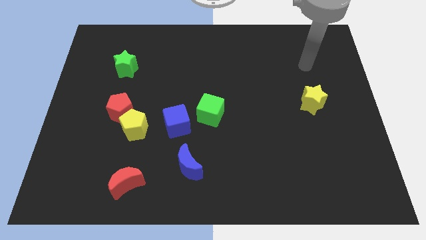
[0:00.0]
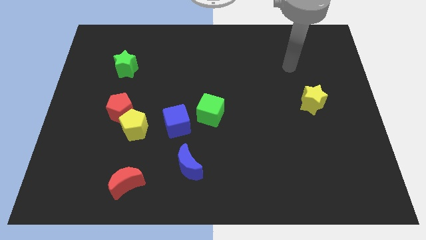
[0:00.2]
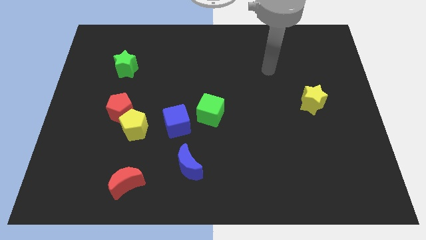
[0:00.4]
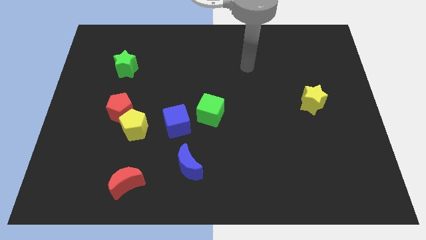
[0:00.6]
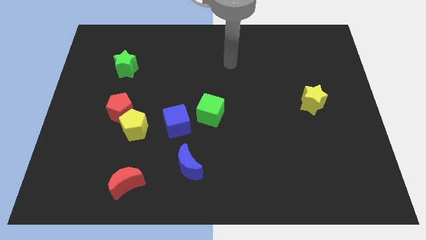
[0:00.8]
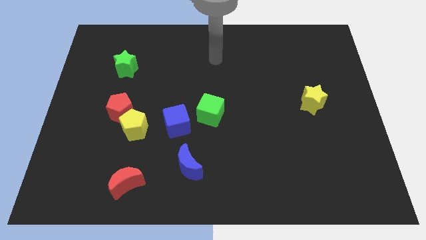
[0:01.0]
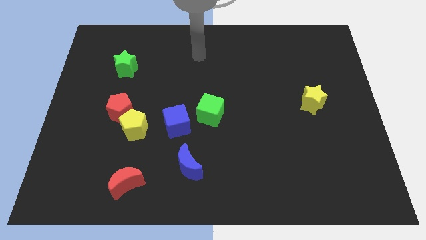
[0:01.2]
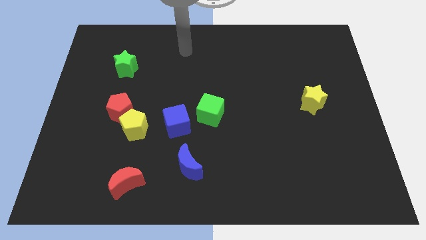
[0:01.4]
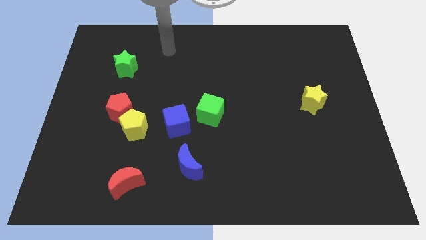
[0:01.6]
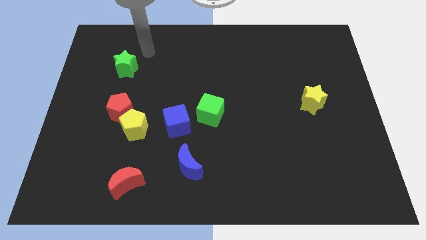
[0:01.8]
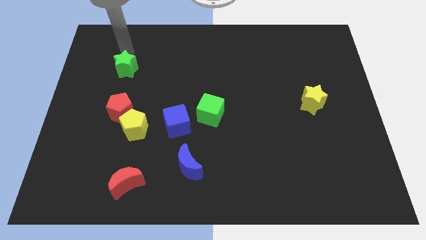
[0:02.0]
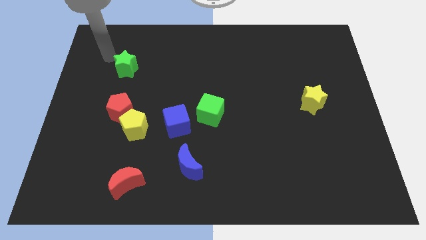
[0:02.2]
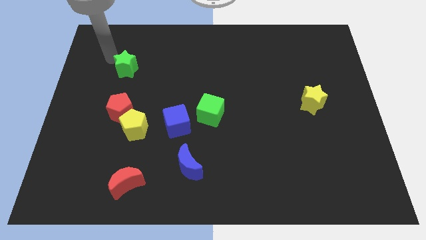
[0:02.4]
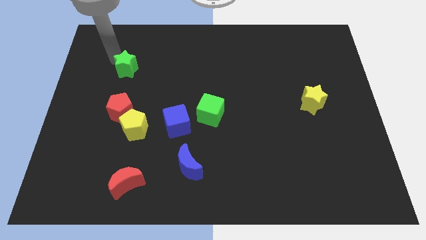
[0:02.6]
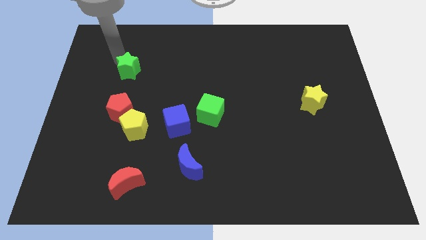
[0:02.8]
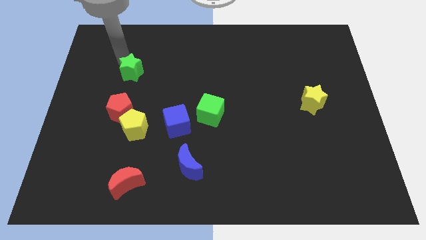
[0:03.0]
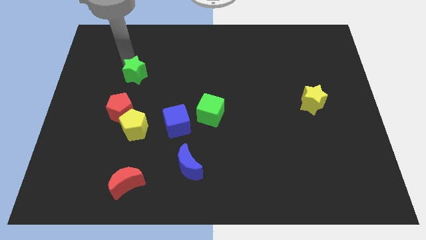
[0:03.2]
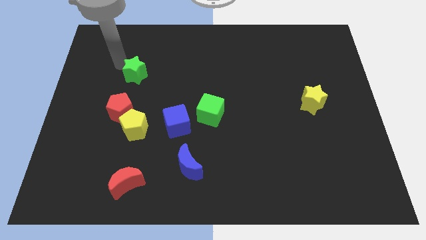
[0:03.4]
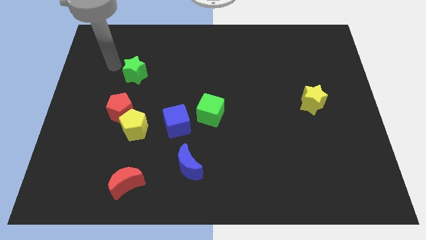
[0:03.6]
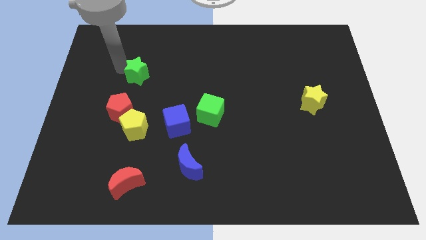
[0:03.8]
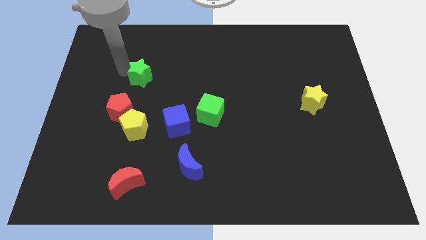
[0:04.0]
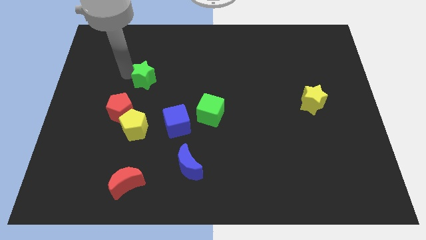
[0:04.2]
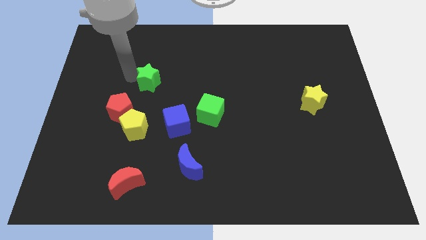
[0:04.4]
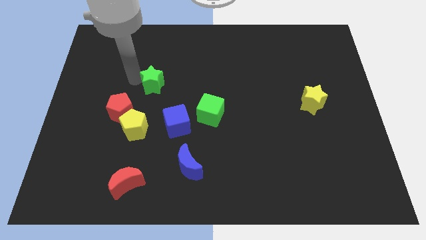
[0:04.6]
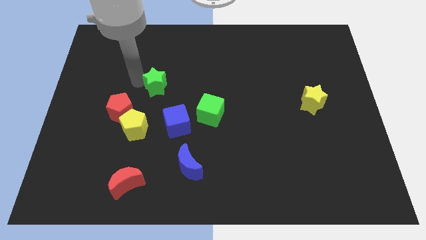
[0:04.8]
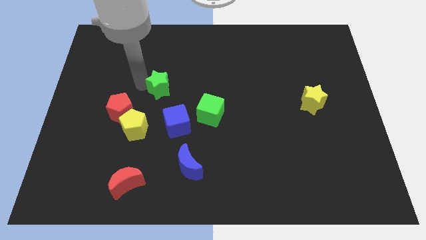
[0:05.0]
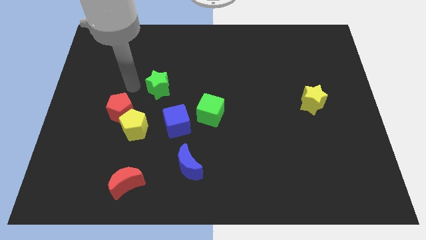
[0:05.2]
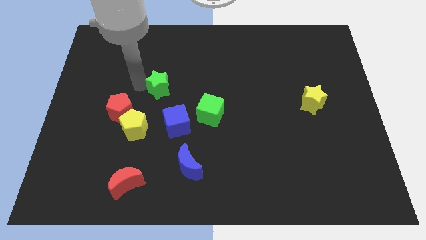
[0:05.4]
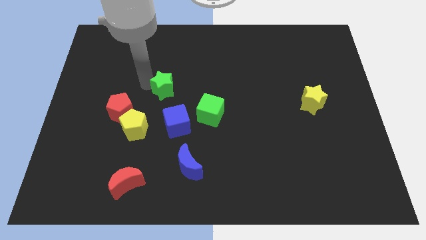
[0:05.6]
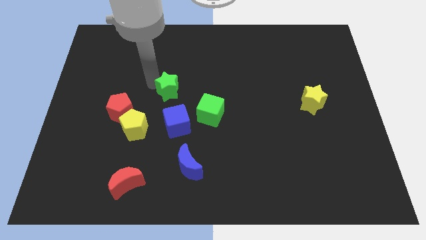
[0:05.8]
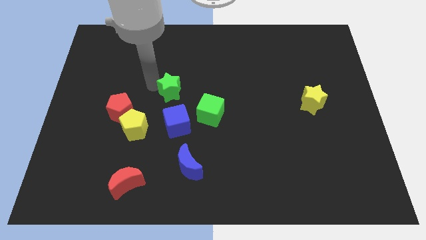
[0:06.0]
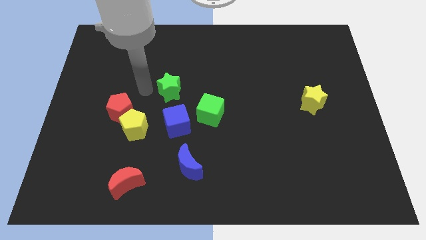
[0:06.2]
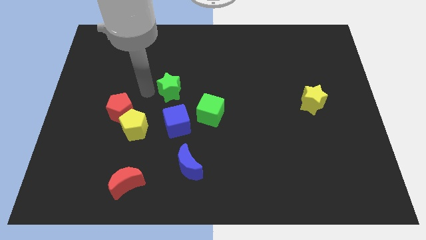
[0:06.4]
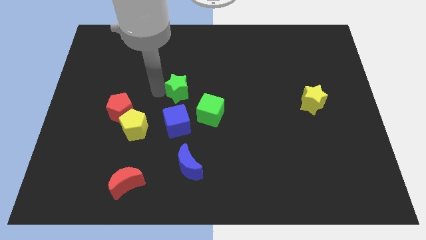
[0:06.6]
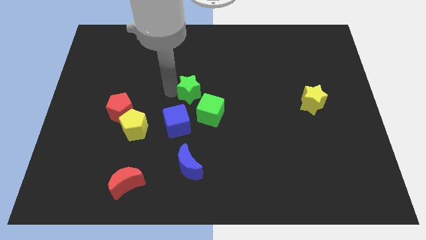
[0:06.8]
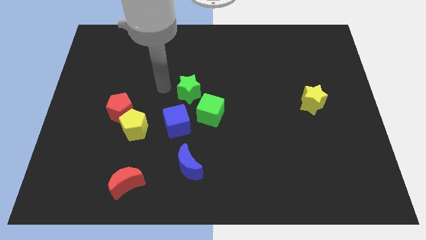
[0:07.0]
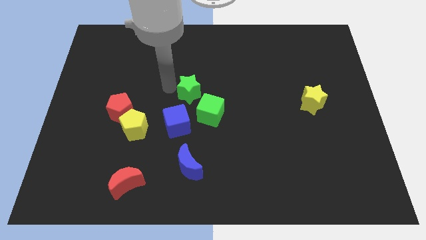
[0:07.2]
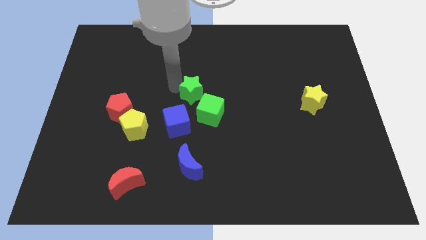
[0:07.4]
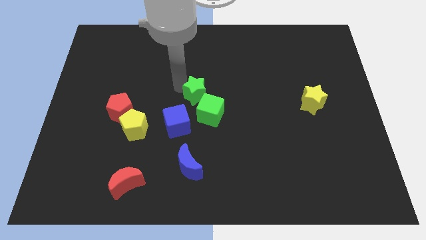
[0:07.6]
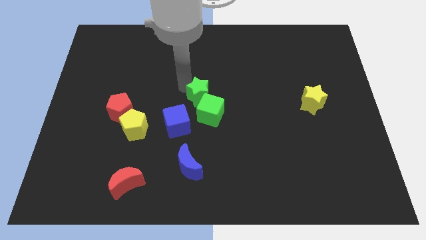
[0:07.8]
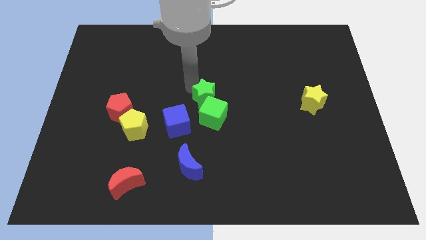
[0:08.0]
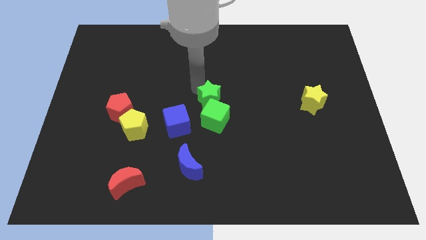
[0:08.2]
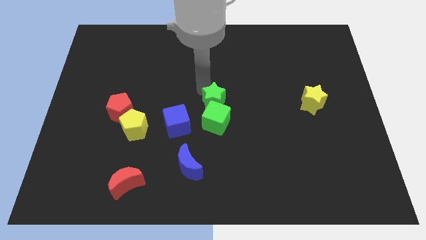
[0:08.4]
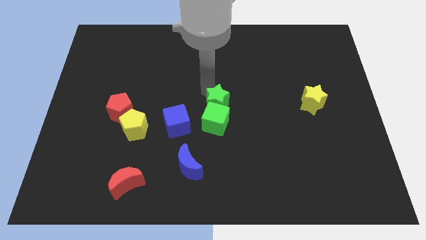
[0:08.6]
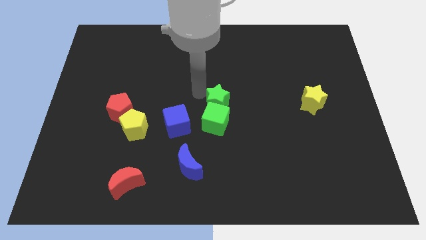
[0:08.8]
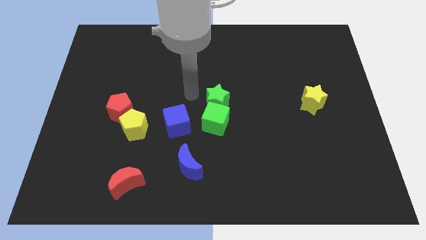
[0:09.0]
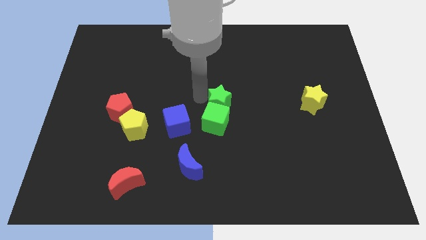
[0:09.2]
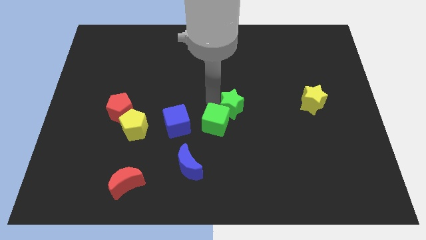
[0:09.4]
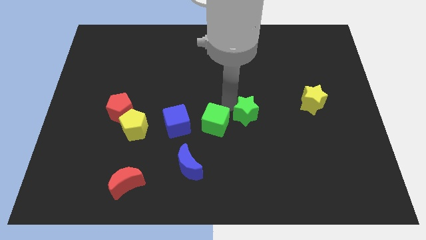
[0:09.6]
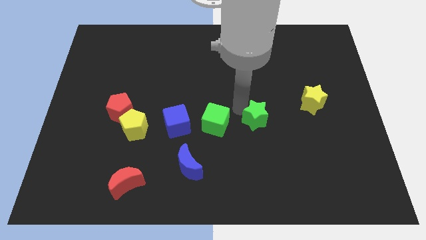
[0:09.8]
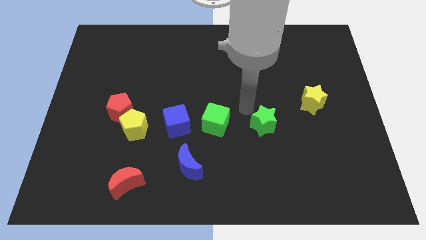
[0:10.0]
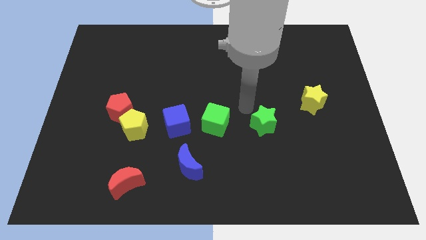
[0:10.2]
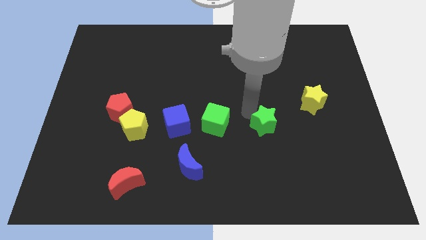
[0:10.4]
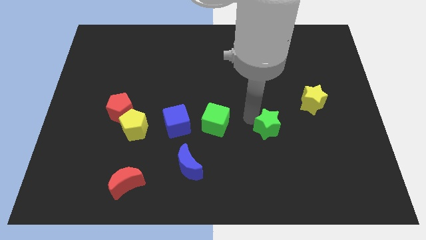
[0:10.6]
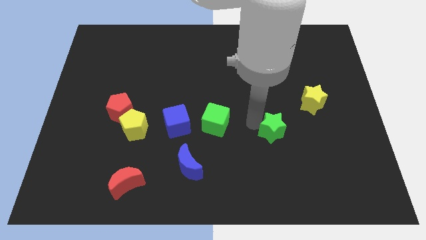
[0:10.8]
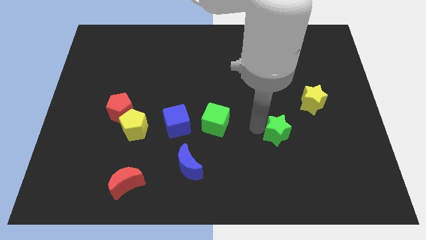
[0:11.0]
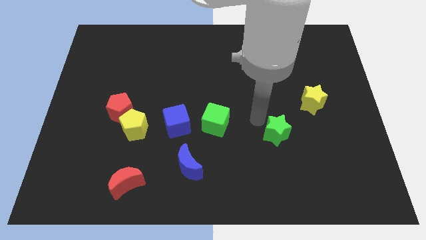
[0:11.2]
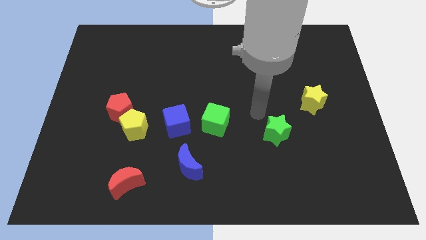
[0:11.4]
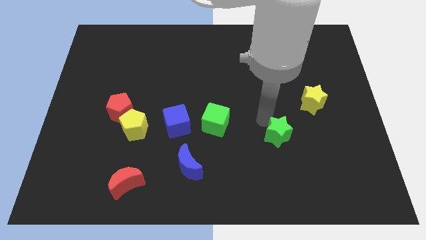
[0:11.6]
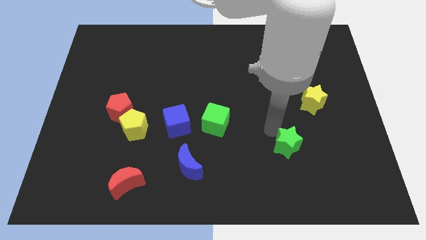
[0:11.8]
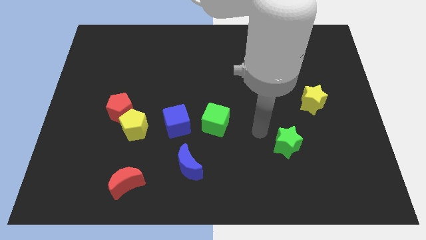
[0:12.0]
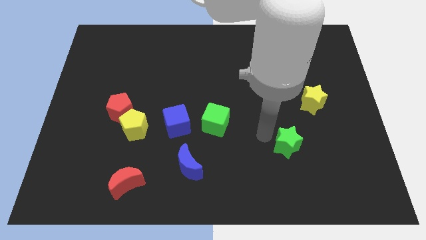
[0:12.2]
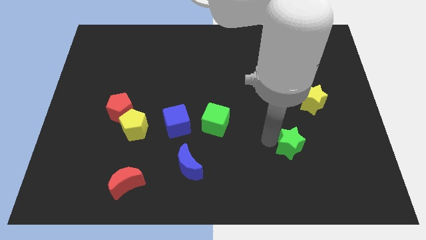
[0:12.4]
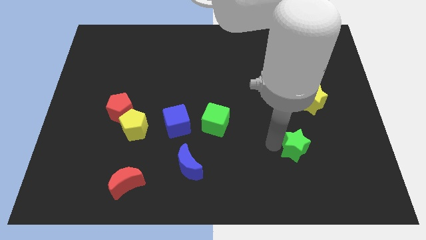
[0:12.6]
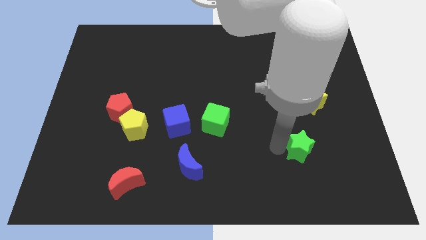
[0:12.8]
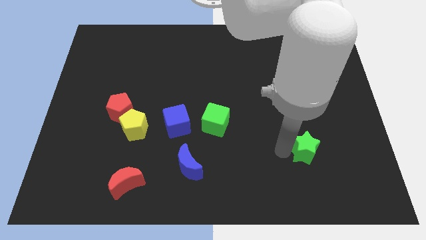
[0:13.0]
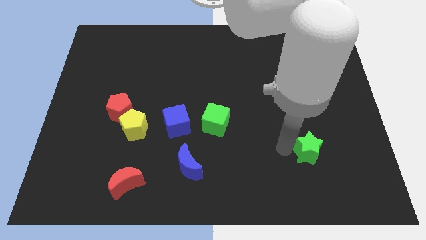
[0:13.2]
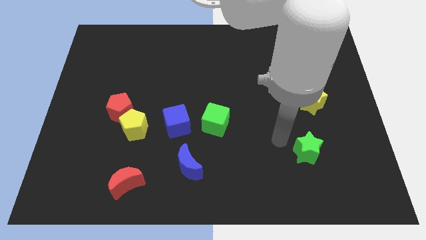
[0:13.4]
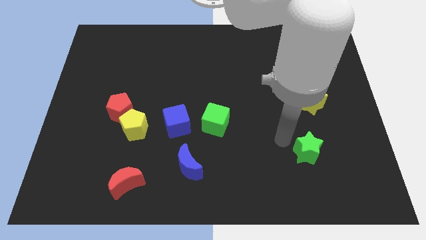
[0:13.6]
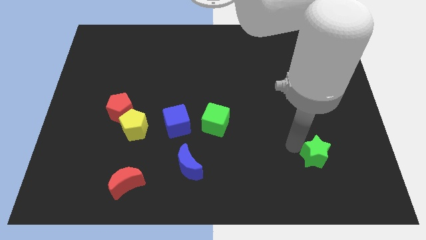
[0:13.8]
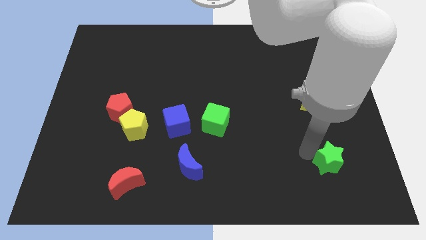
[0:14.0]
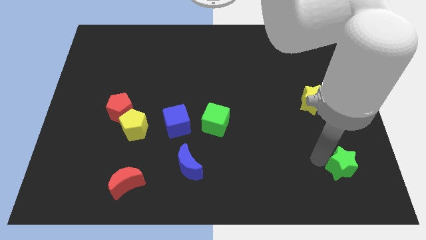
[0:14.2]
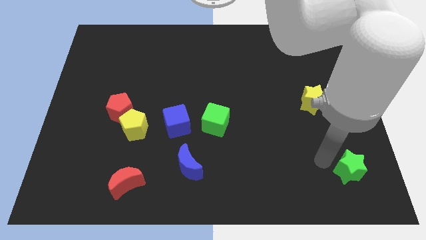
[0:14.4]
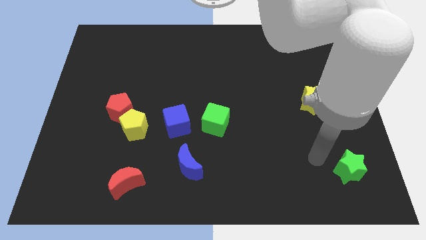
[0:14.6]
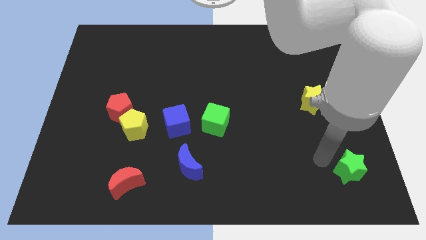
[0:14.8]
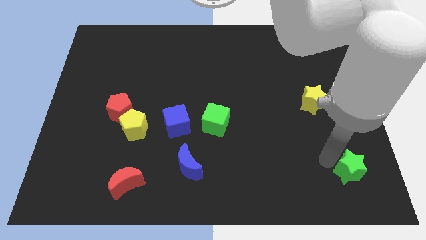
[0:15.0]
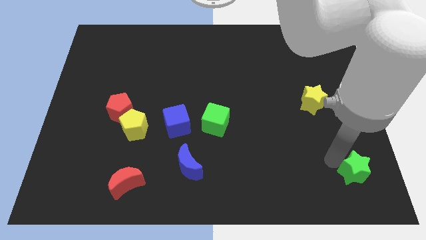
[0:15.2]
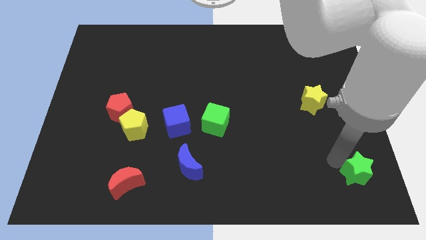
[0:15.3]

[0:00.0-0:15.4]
push the green star to the bottom right
